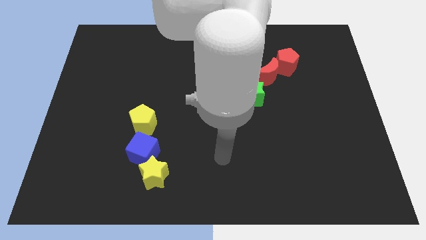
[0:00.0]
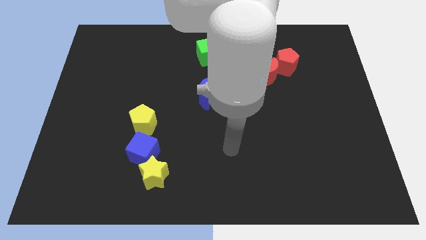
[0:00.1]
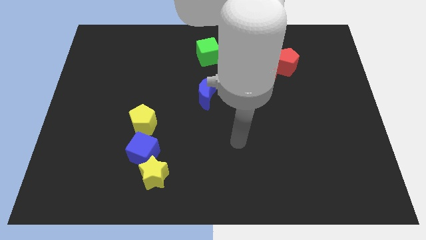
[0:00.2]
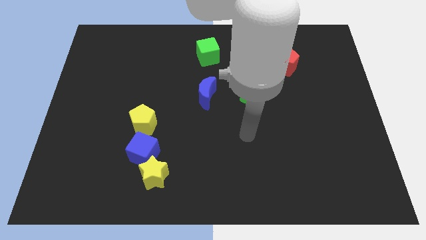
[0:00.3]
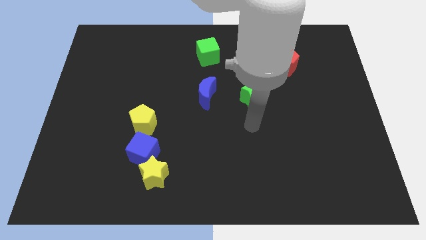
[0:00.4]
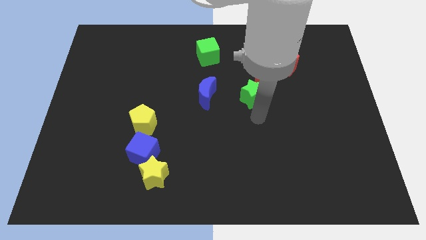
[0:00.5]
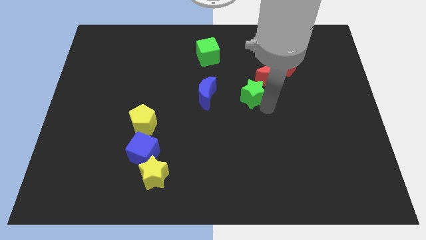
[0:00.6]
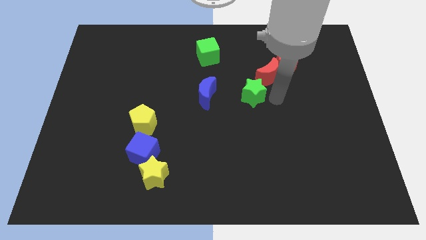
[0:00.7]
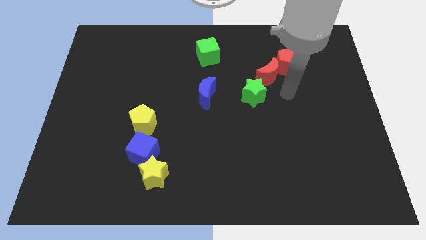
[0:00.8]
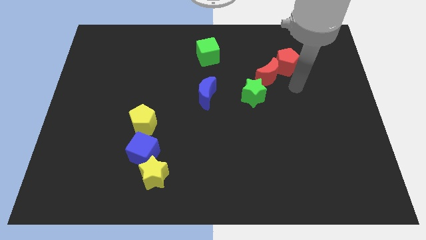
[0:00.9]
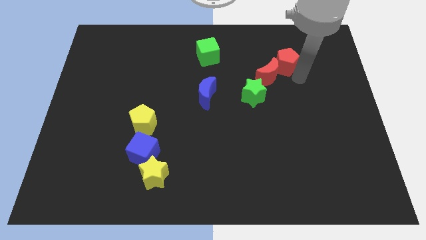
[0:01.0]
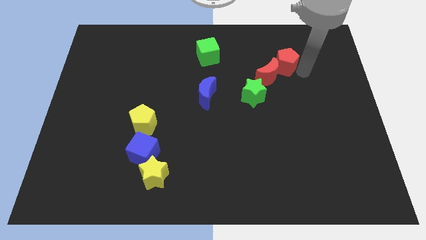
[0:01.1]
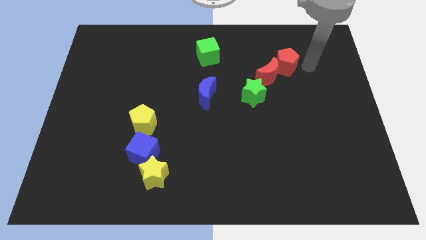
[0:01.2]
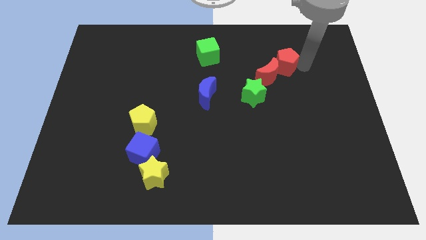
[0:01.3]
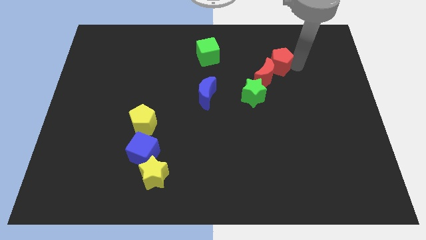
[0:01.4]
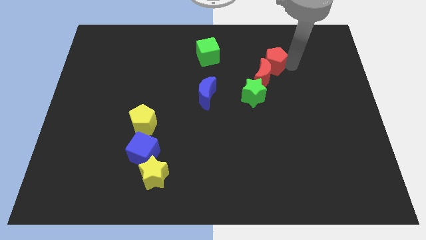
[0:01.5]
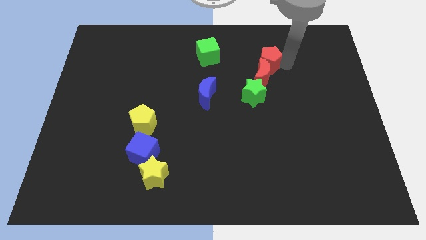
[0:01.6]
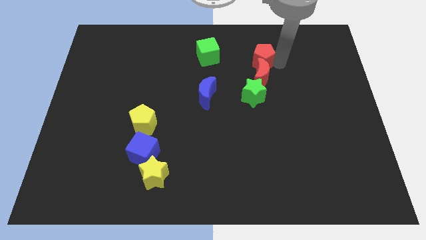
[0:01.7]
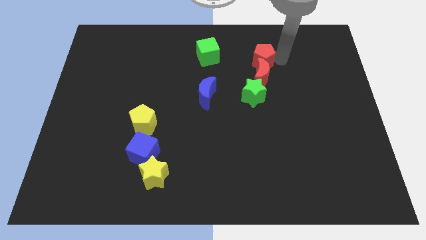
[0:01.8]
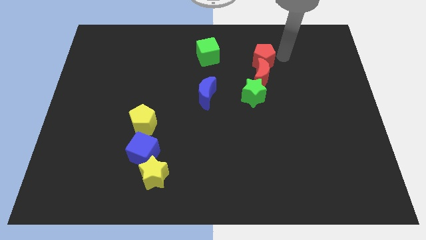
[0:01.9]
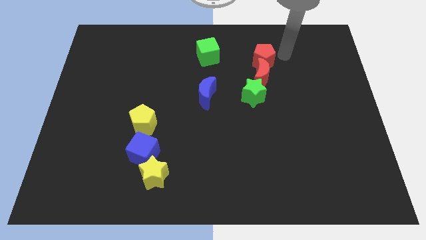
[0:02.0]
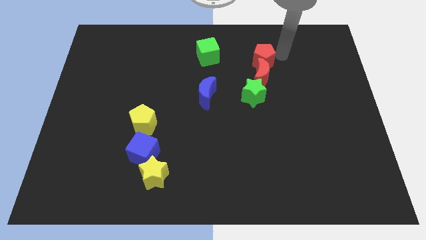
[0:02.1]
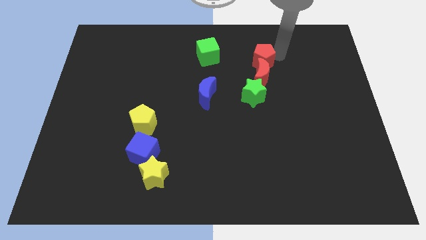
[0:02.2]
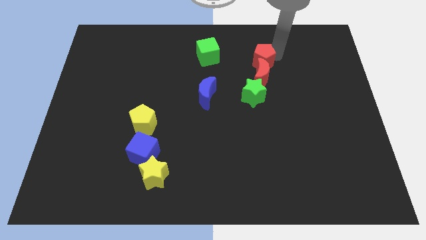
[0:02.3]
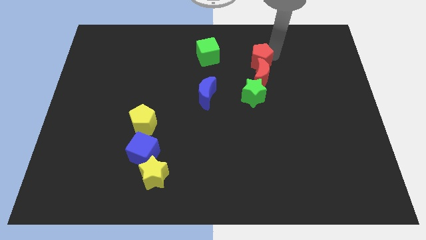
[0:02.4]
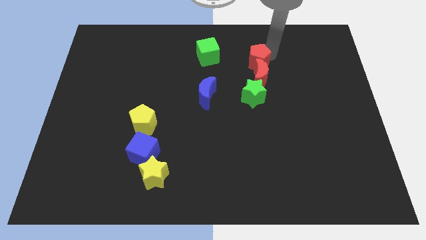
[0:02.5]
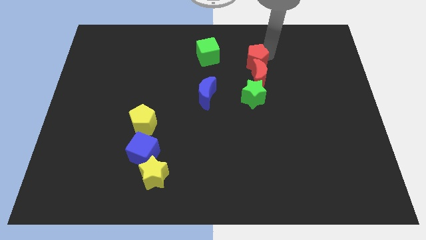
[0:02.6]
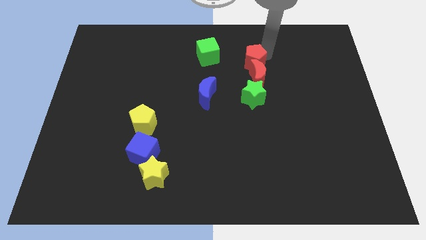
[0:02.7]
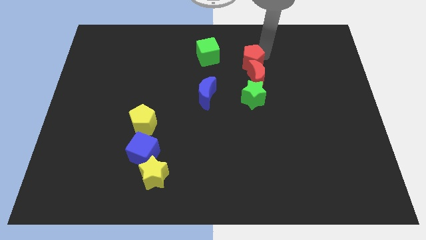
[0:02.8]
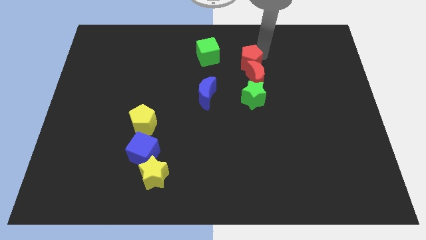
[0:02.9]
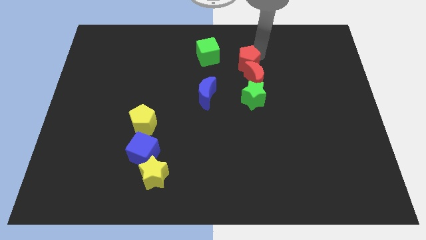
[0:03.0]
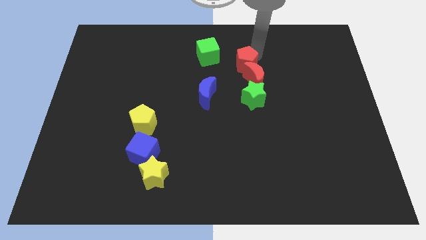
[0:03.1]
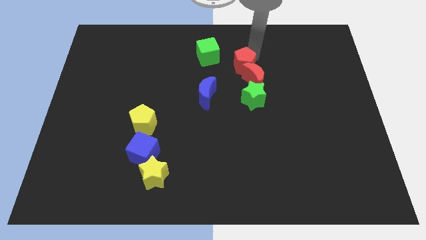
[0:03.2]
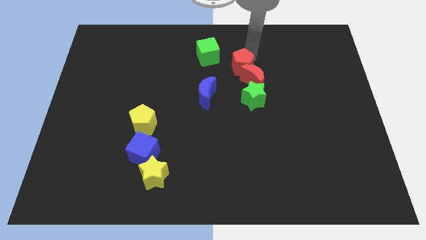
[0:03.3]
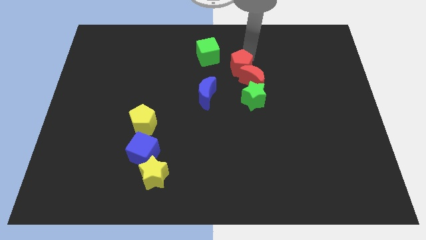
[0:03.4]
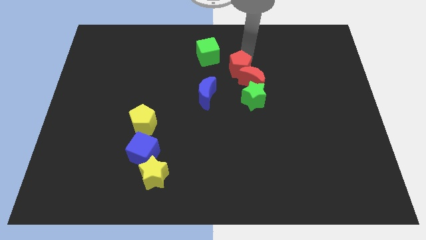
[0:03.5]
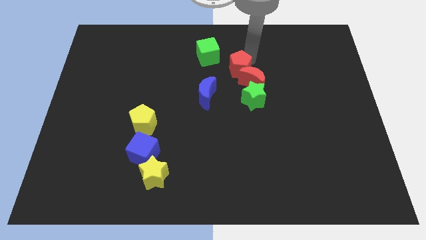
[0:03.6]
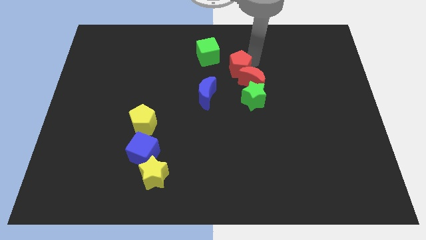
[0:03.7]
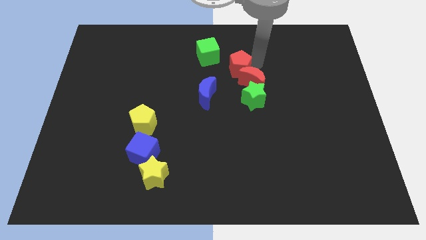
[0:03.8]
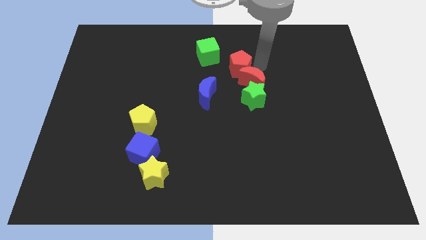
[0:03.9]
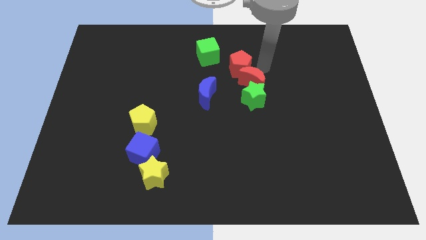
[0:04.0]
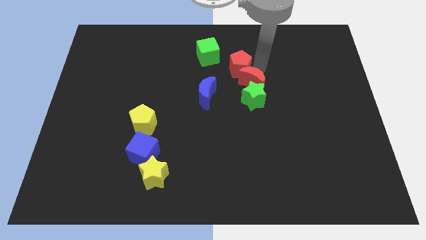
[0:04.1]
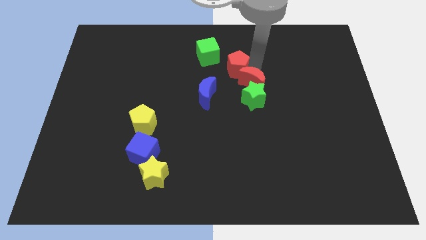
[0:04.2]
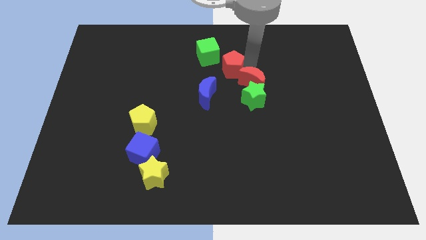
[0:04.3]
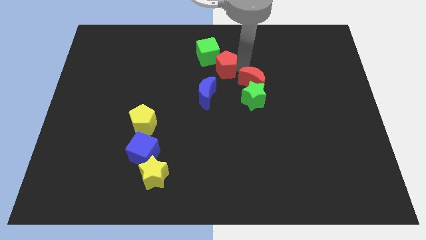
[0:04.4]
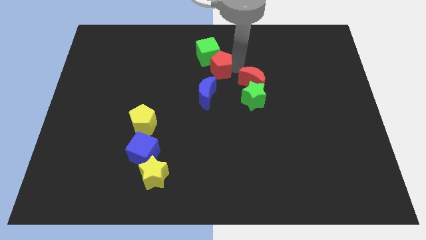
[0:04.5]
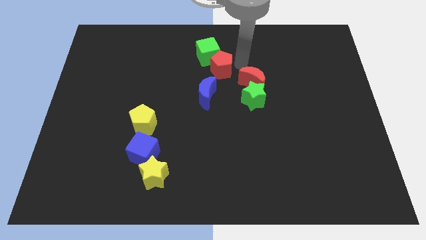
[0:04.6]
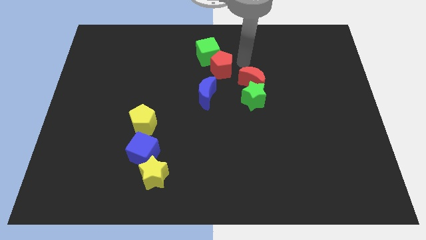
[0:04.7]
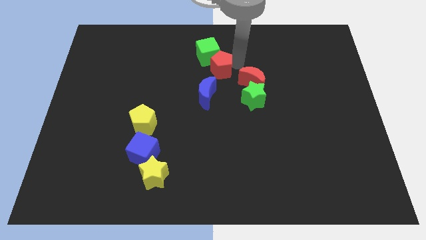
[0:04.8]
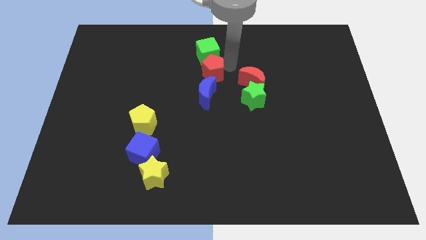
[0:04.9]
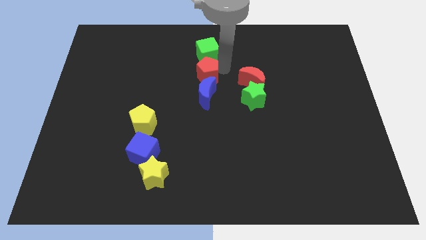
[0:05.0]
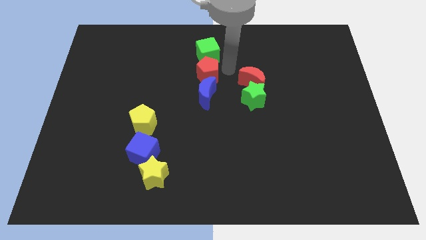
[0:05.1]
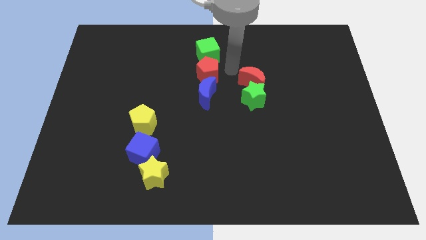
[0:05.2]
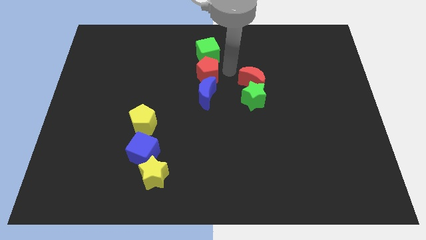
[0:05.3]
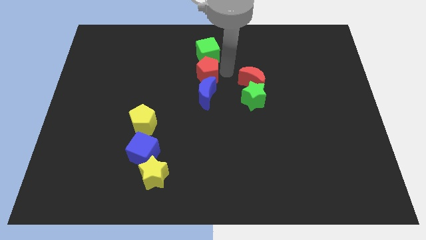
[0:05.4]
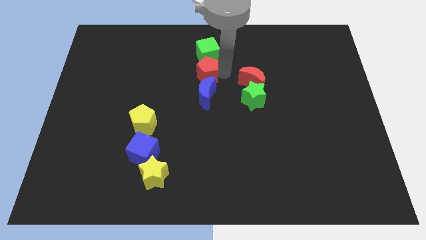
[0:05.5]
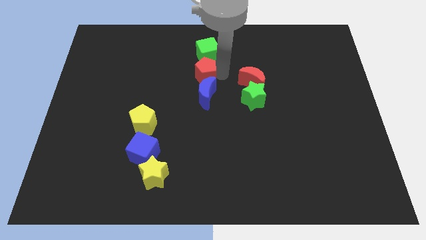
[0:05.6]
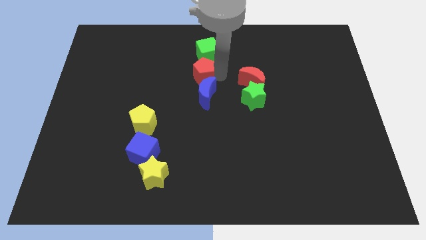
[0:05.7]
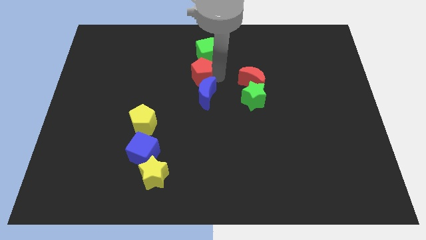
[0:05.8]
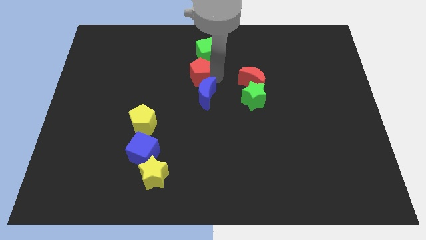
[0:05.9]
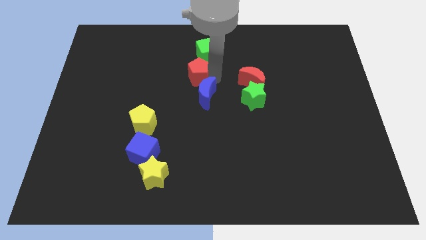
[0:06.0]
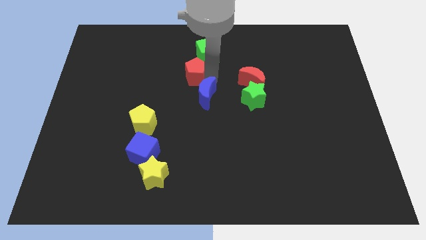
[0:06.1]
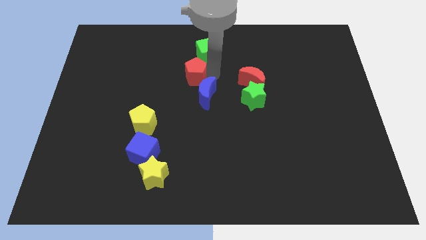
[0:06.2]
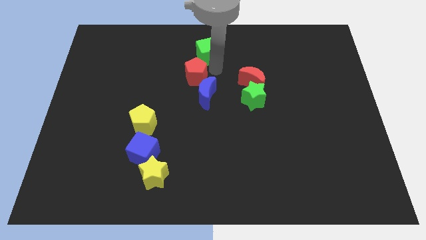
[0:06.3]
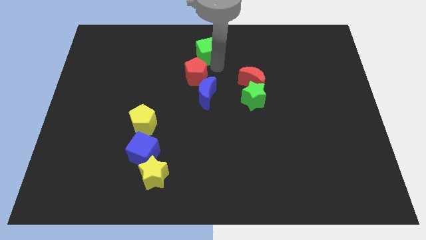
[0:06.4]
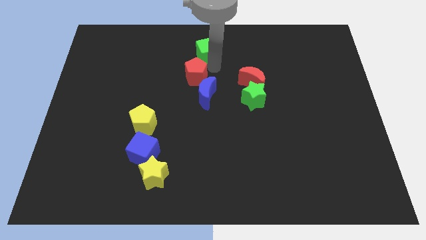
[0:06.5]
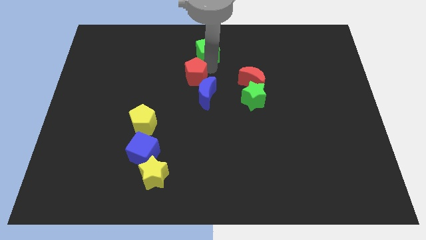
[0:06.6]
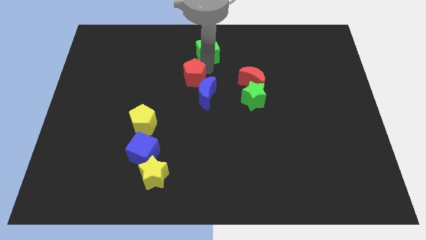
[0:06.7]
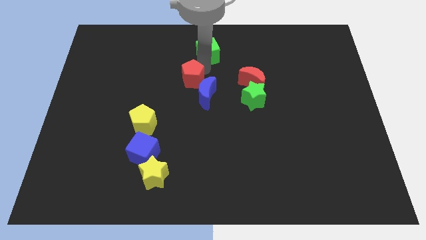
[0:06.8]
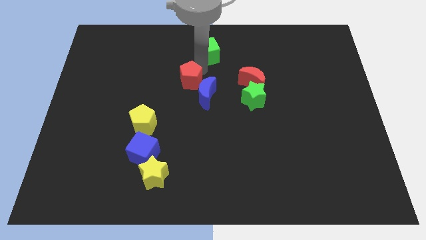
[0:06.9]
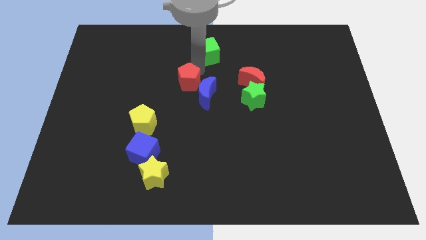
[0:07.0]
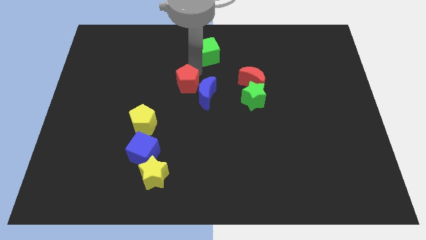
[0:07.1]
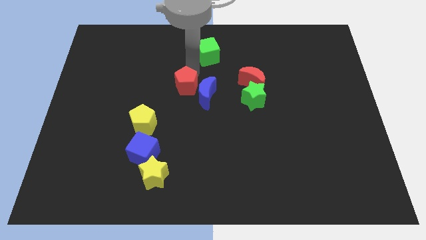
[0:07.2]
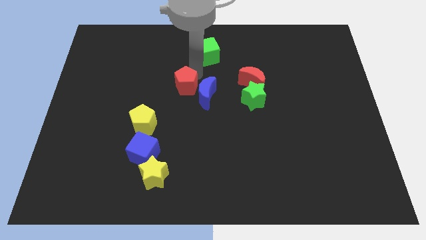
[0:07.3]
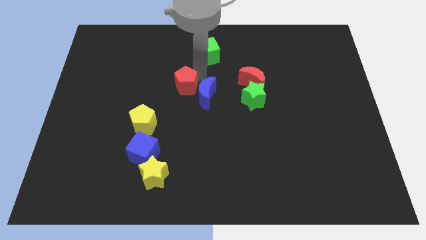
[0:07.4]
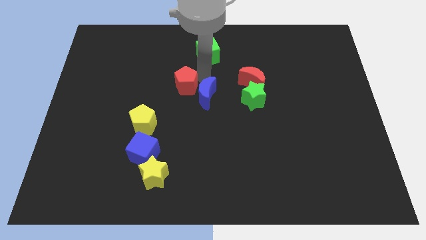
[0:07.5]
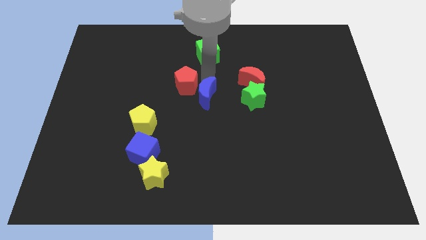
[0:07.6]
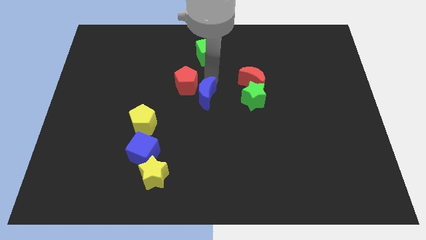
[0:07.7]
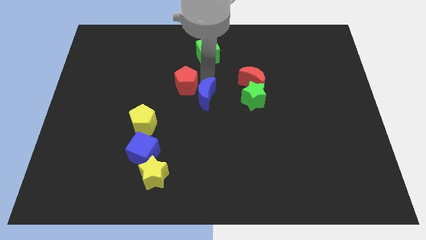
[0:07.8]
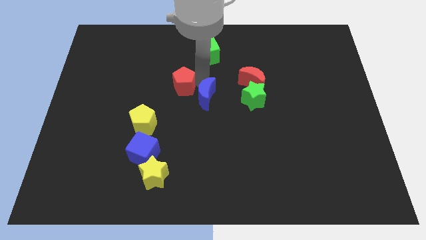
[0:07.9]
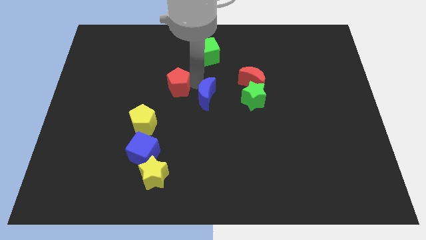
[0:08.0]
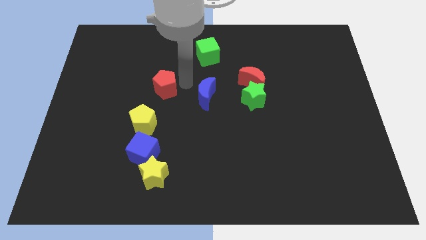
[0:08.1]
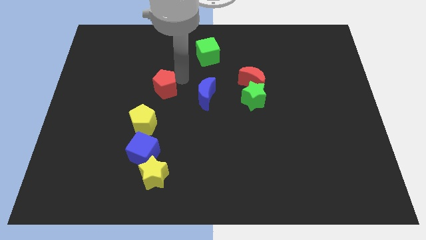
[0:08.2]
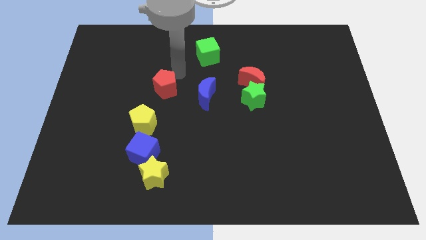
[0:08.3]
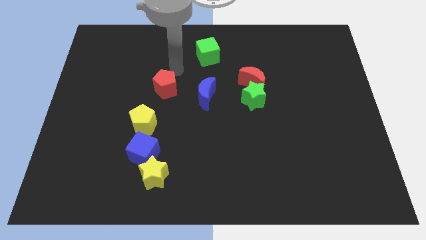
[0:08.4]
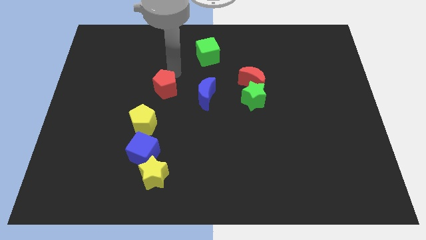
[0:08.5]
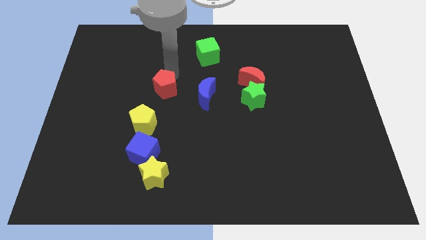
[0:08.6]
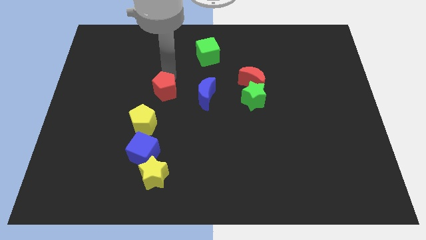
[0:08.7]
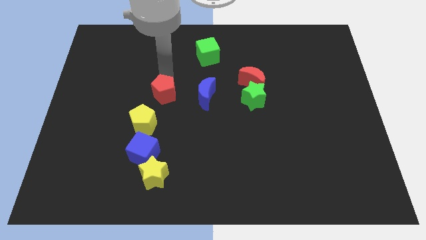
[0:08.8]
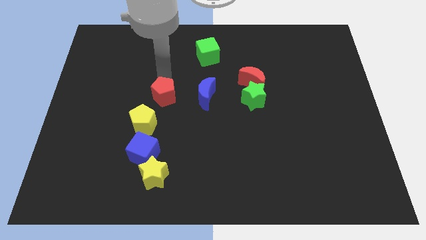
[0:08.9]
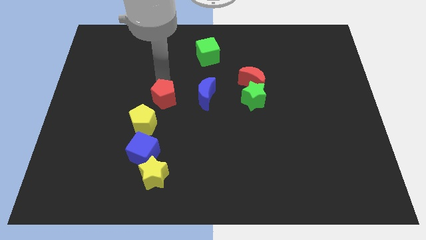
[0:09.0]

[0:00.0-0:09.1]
move the red pentagon to the top side of the blue cube
